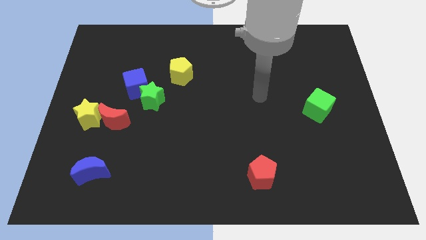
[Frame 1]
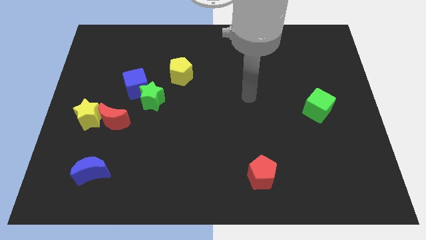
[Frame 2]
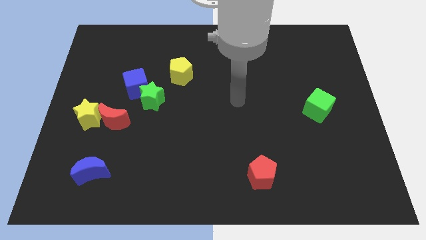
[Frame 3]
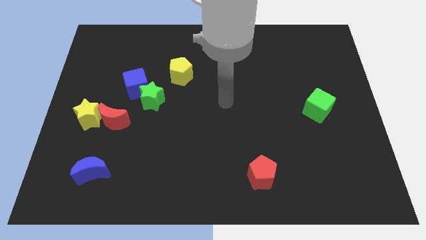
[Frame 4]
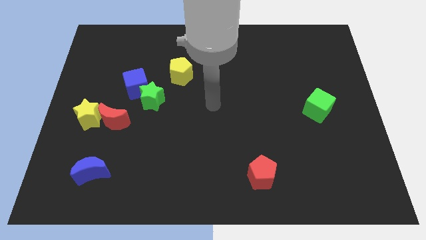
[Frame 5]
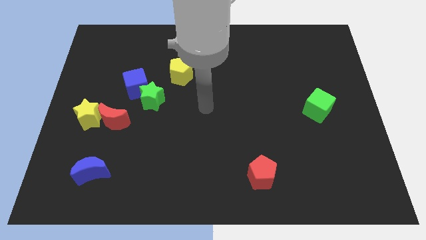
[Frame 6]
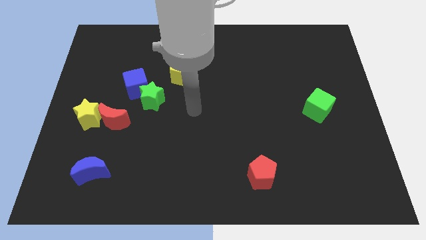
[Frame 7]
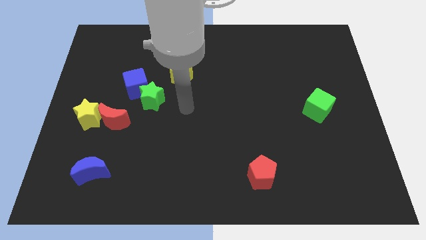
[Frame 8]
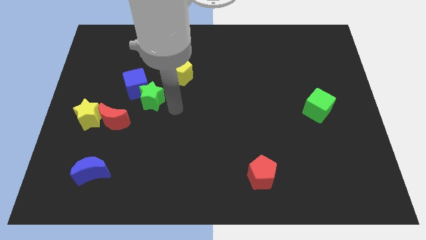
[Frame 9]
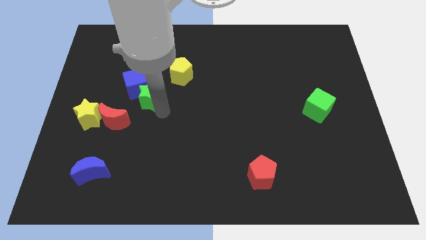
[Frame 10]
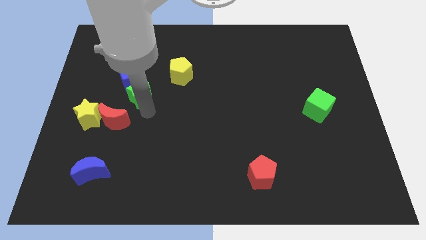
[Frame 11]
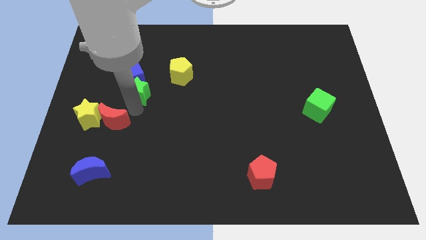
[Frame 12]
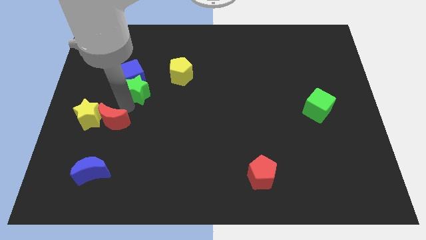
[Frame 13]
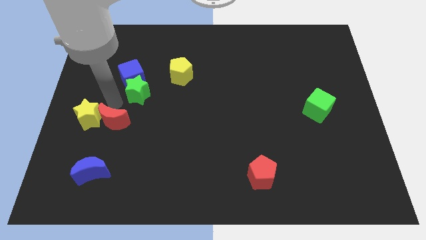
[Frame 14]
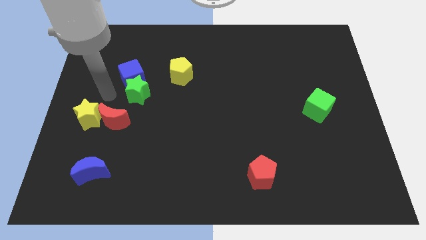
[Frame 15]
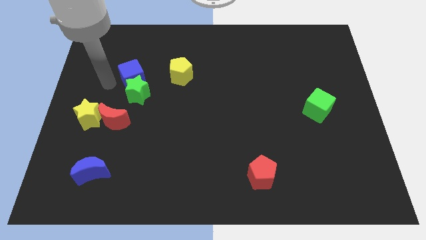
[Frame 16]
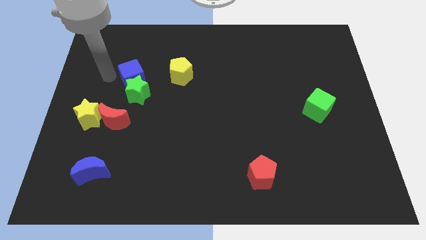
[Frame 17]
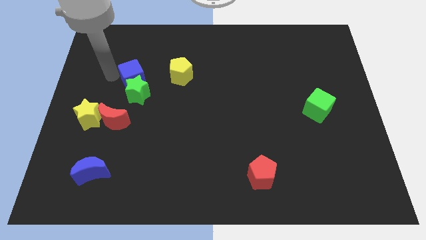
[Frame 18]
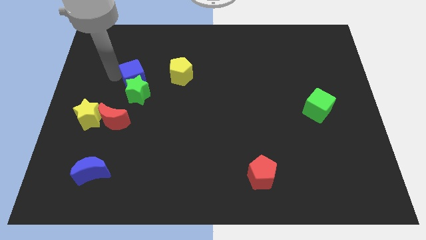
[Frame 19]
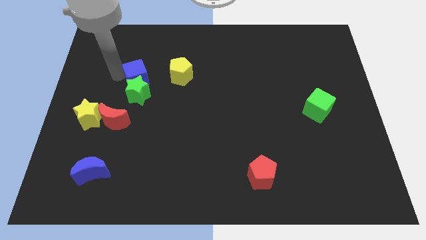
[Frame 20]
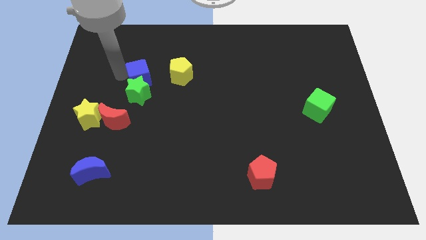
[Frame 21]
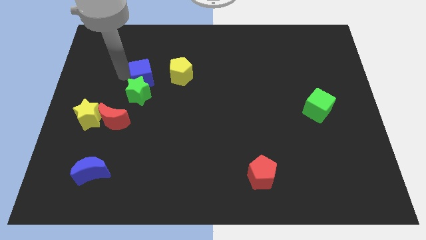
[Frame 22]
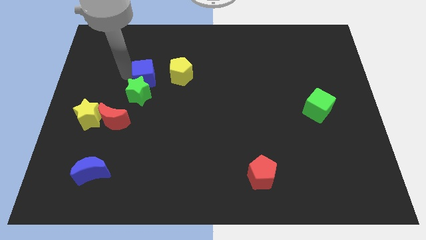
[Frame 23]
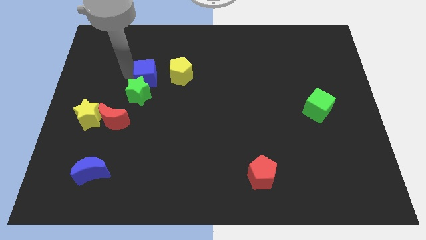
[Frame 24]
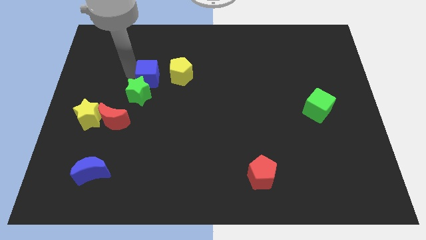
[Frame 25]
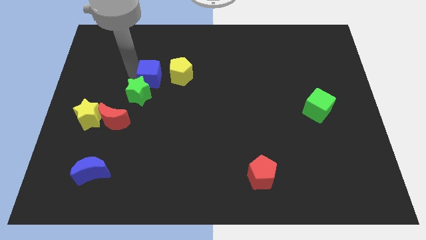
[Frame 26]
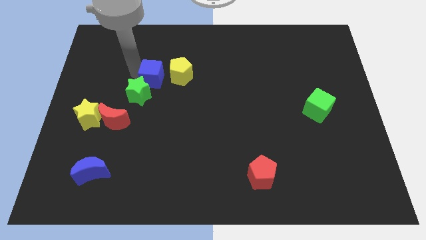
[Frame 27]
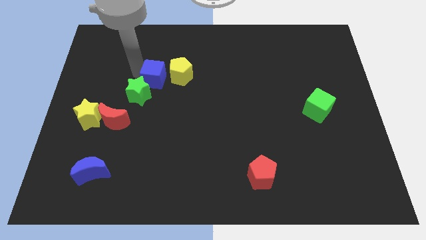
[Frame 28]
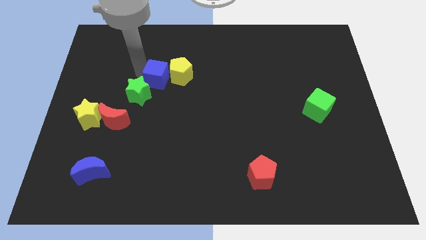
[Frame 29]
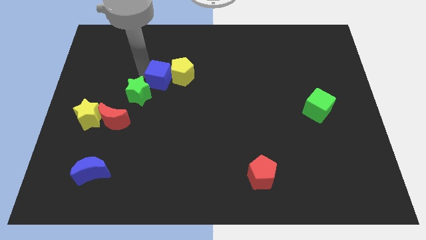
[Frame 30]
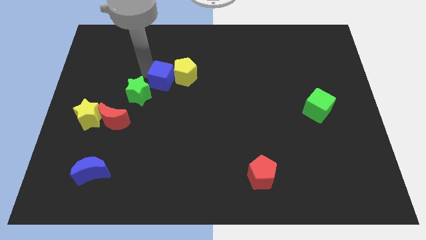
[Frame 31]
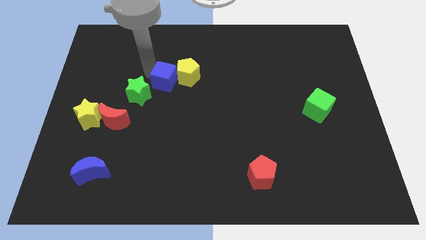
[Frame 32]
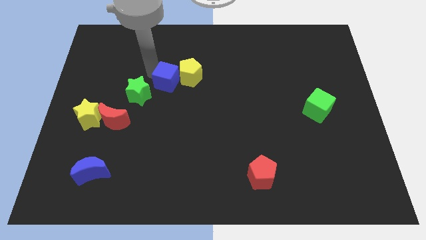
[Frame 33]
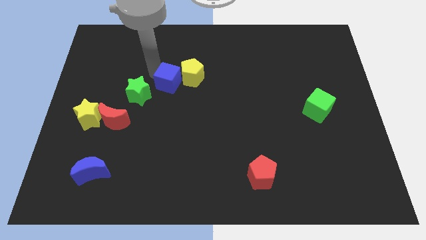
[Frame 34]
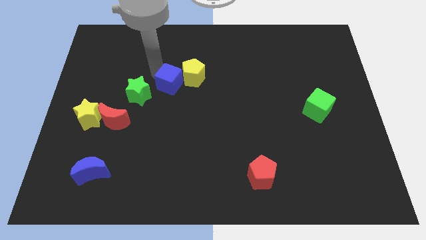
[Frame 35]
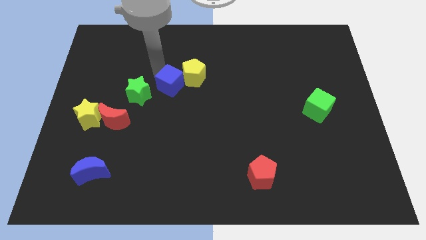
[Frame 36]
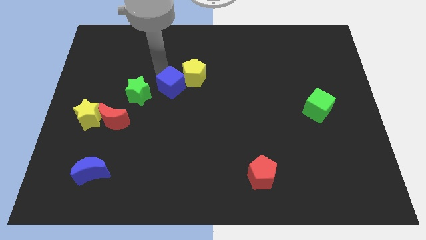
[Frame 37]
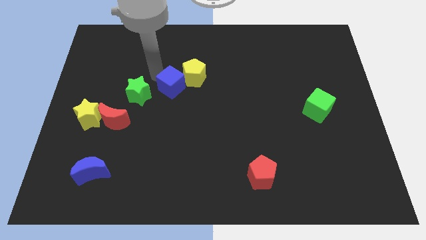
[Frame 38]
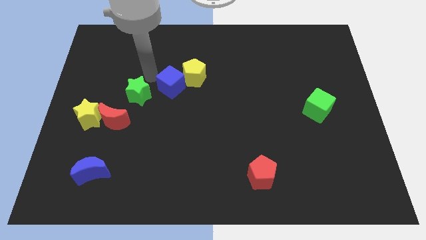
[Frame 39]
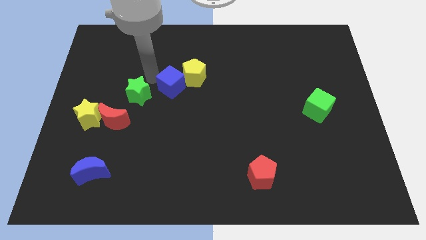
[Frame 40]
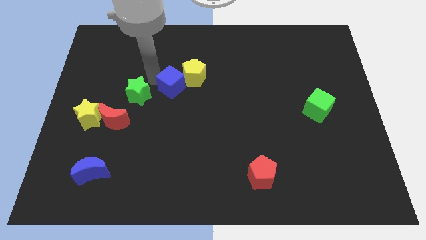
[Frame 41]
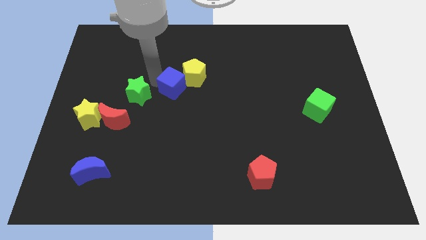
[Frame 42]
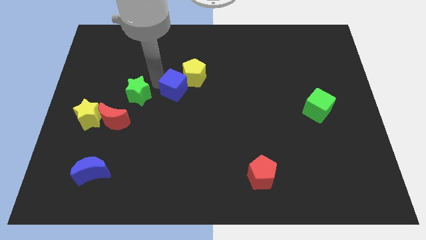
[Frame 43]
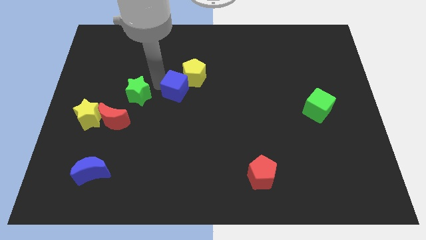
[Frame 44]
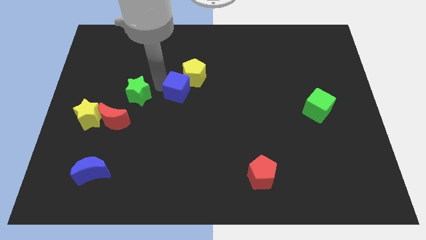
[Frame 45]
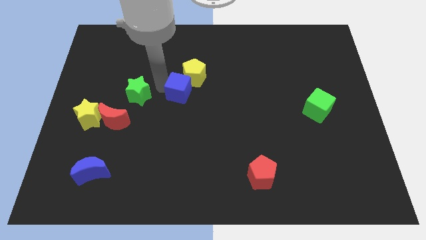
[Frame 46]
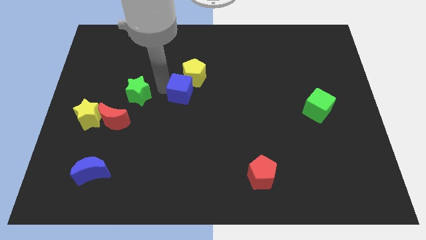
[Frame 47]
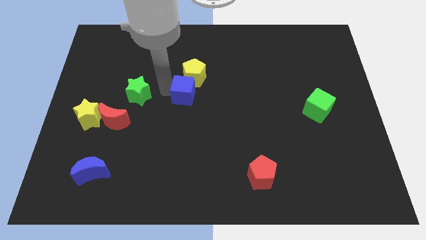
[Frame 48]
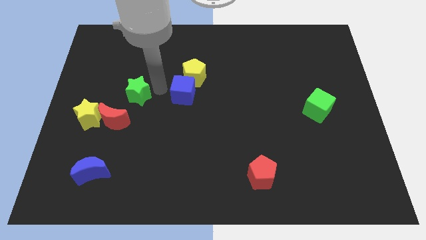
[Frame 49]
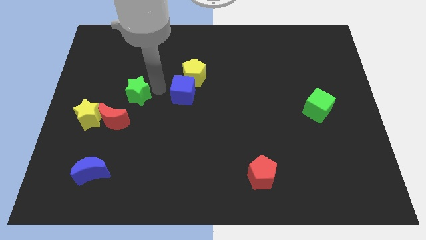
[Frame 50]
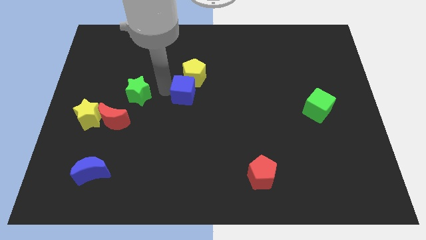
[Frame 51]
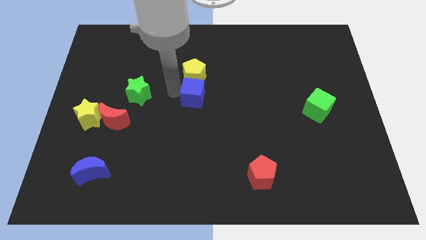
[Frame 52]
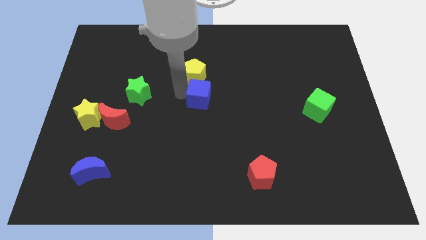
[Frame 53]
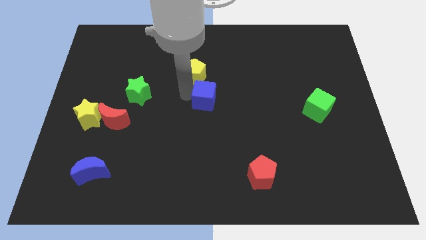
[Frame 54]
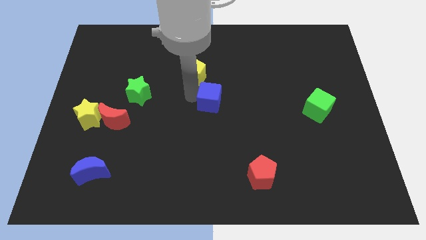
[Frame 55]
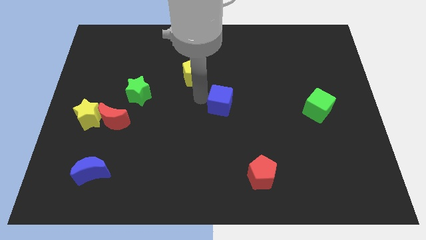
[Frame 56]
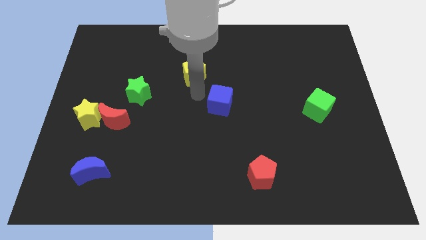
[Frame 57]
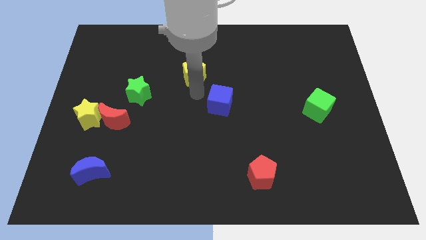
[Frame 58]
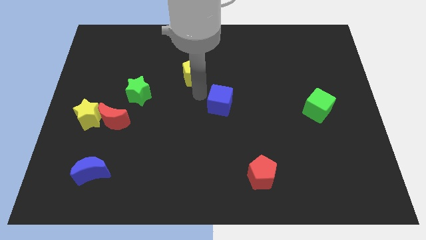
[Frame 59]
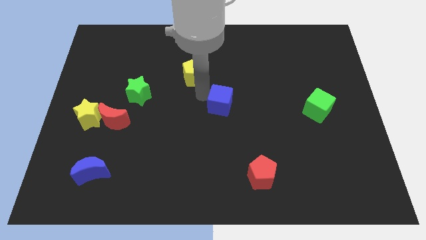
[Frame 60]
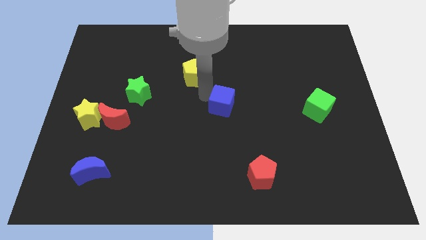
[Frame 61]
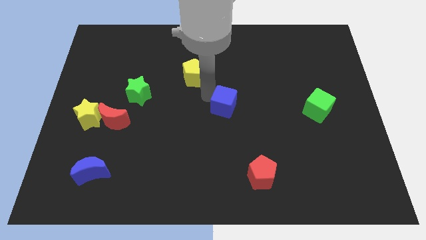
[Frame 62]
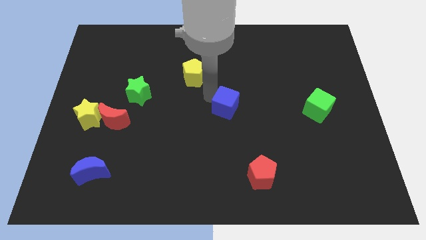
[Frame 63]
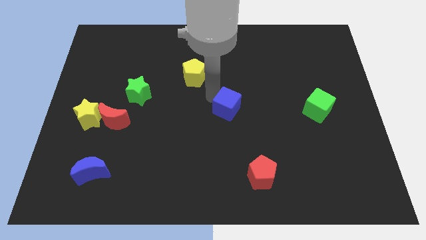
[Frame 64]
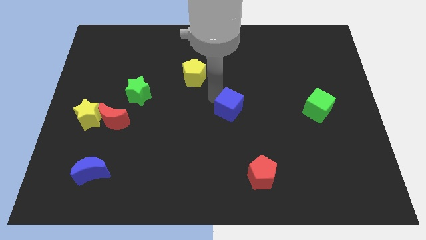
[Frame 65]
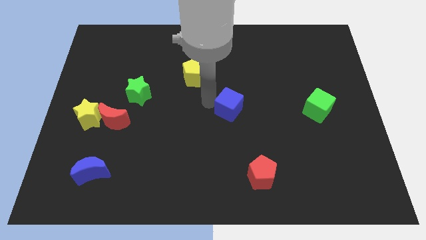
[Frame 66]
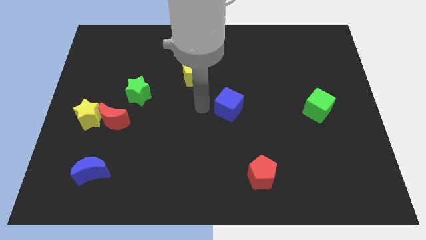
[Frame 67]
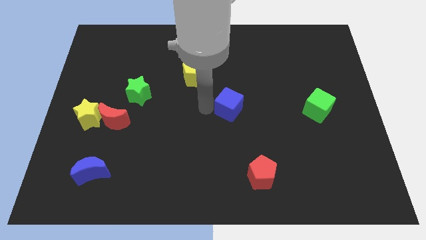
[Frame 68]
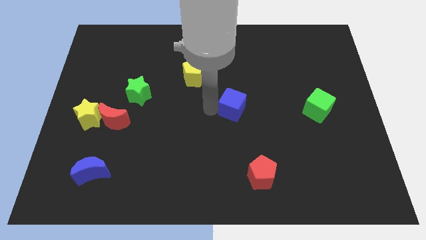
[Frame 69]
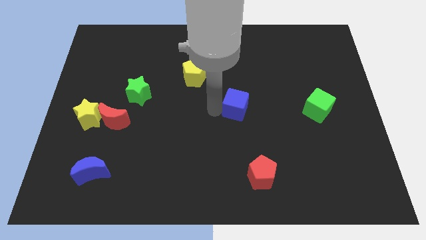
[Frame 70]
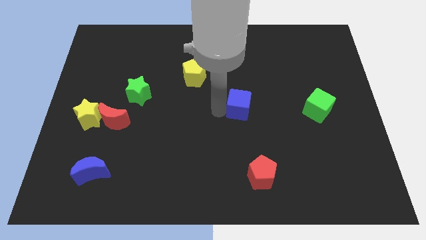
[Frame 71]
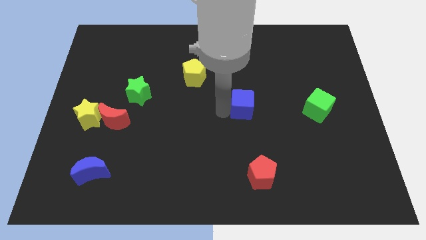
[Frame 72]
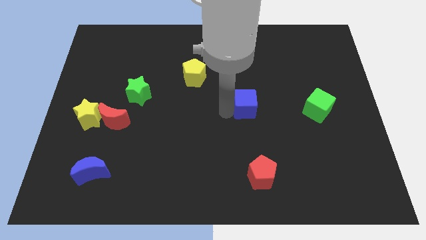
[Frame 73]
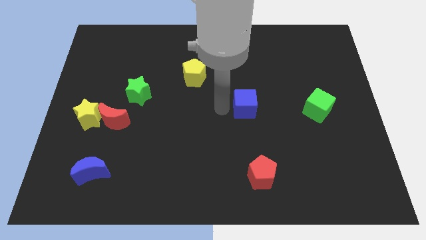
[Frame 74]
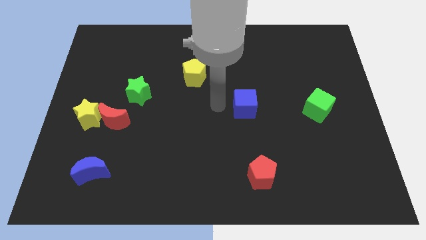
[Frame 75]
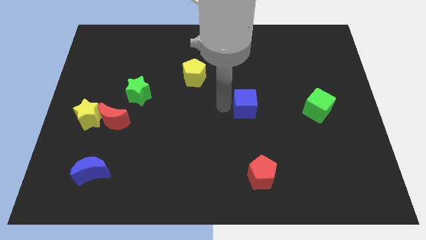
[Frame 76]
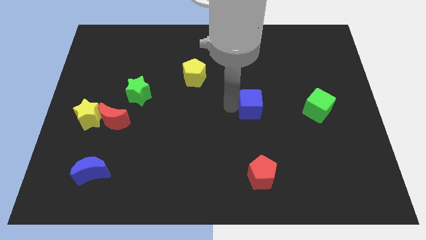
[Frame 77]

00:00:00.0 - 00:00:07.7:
push the blue cube just left of the green cube
